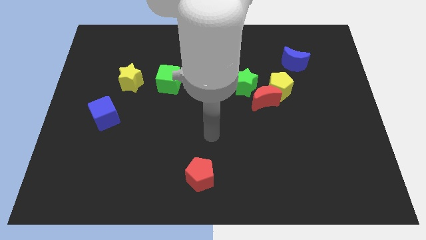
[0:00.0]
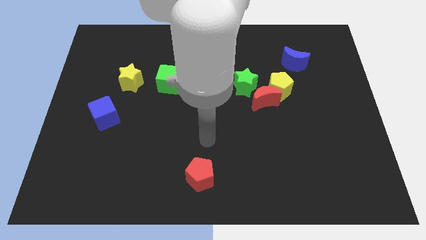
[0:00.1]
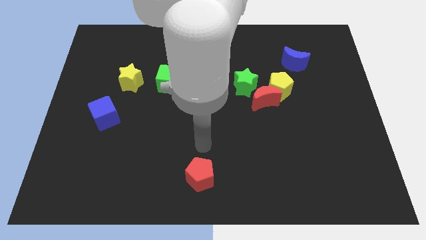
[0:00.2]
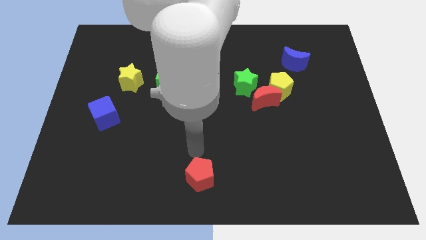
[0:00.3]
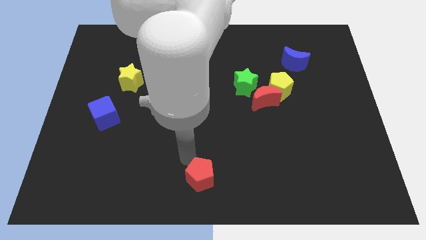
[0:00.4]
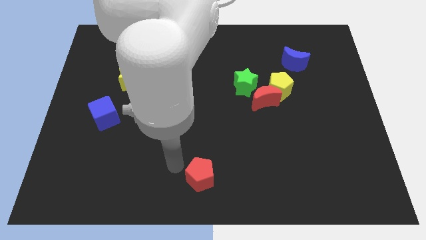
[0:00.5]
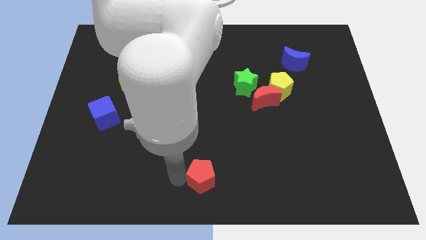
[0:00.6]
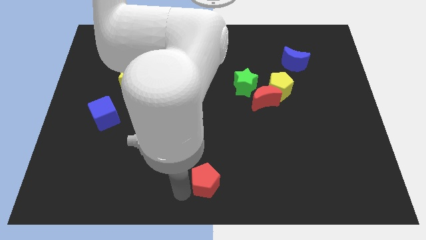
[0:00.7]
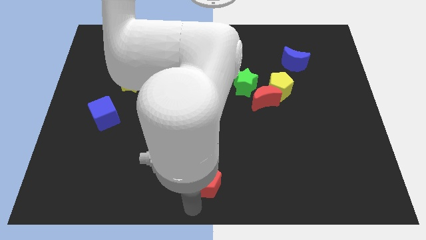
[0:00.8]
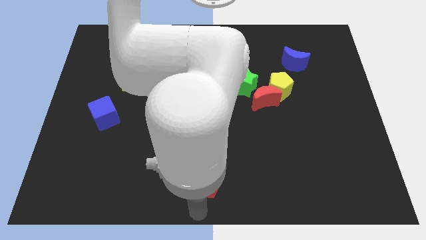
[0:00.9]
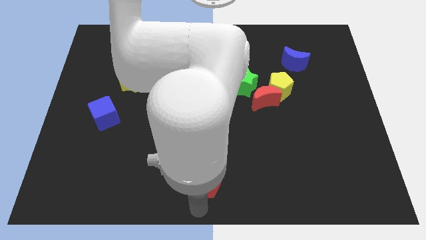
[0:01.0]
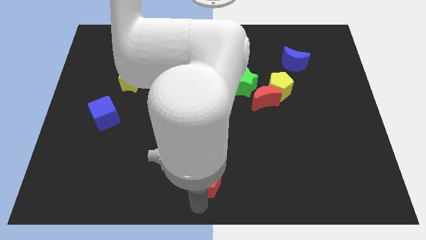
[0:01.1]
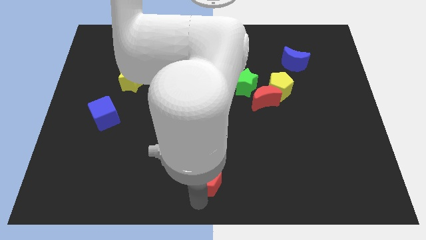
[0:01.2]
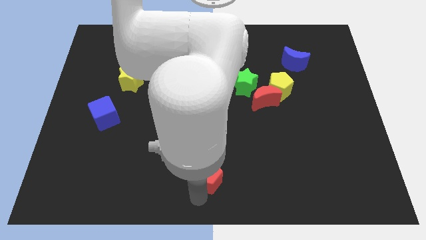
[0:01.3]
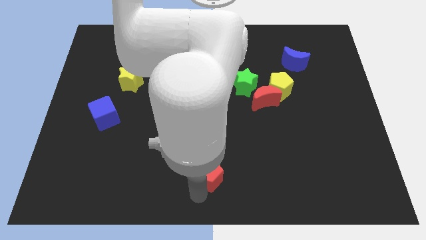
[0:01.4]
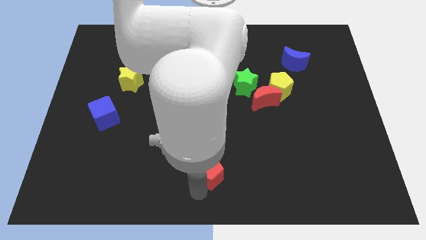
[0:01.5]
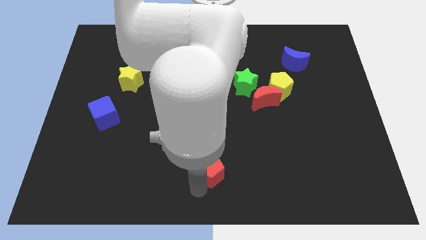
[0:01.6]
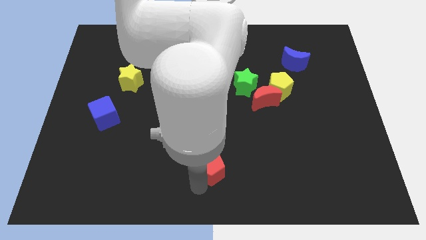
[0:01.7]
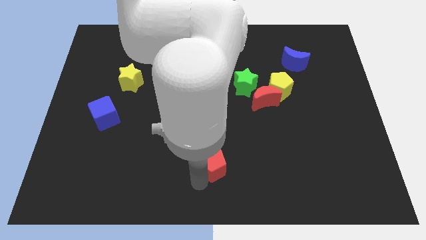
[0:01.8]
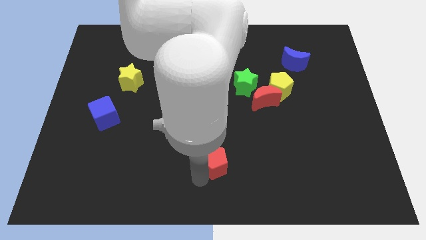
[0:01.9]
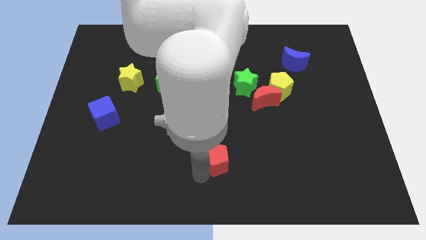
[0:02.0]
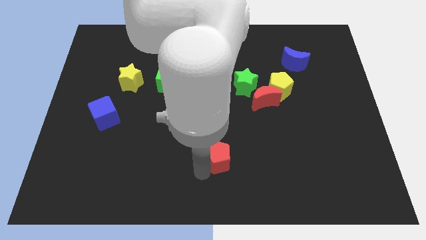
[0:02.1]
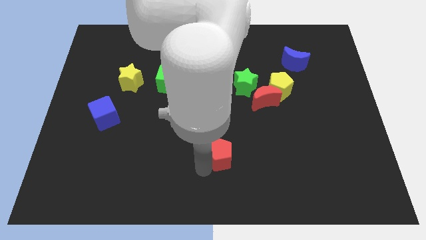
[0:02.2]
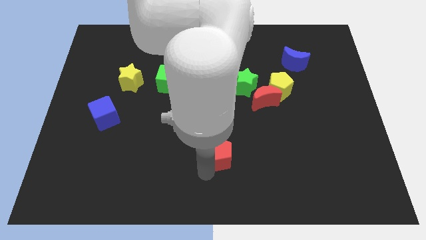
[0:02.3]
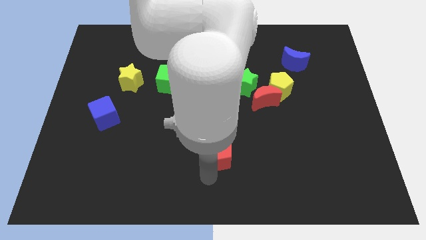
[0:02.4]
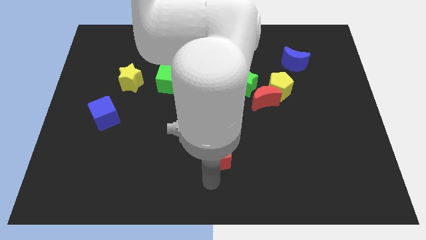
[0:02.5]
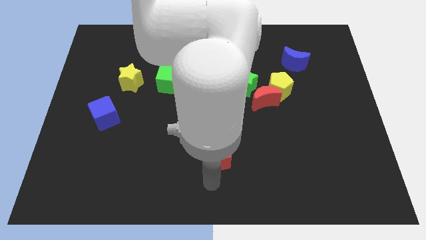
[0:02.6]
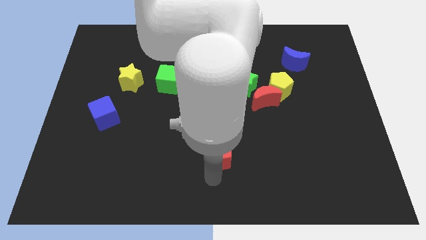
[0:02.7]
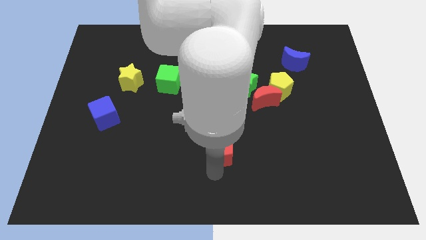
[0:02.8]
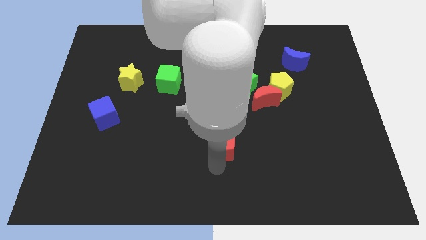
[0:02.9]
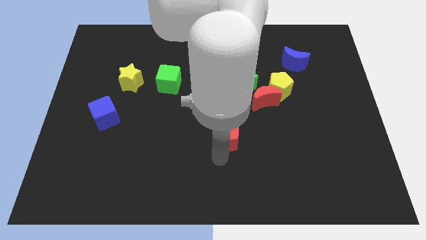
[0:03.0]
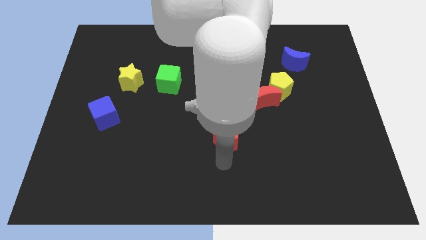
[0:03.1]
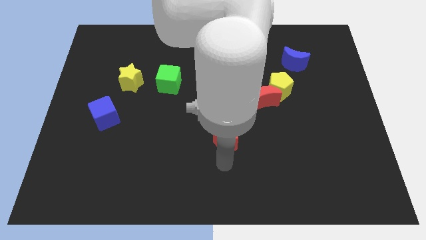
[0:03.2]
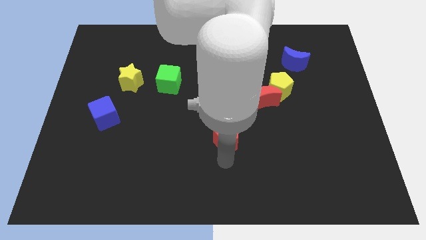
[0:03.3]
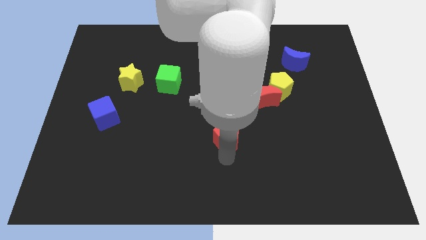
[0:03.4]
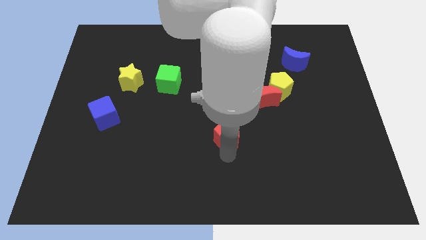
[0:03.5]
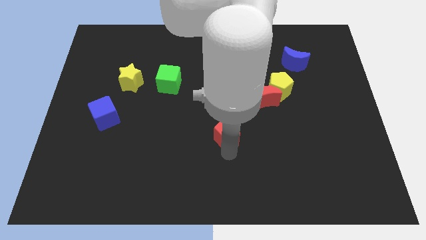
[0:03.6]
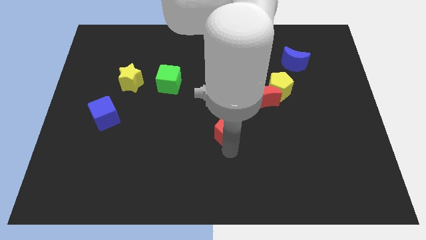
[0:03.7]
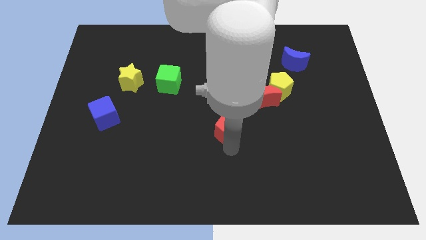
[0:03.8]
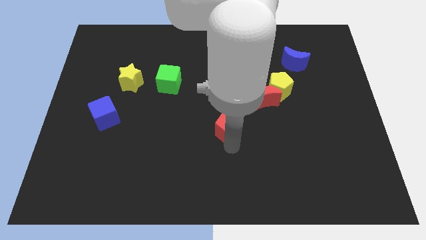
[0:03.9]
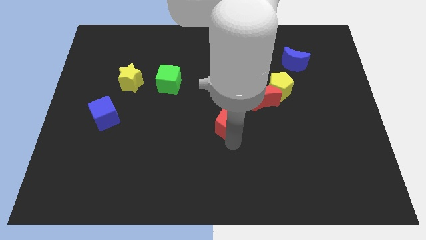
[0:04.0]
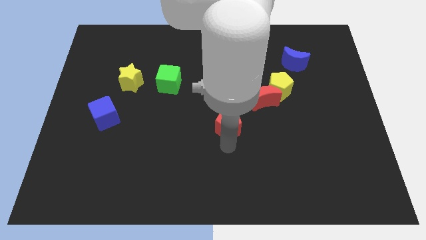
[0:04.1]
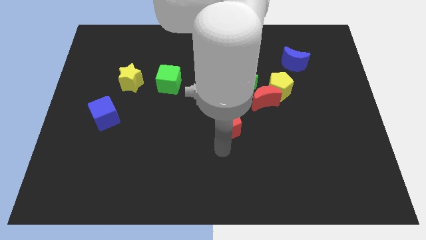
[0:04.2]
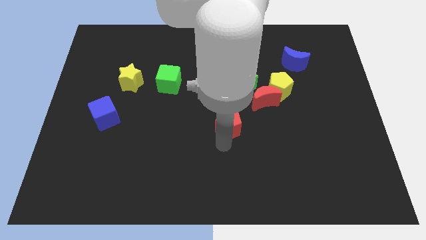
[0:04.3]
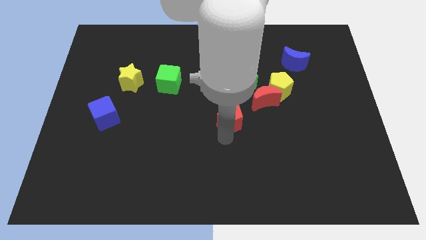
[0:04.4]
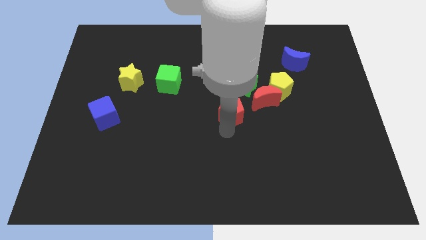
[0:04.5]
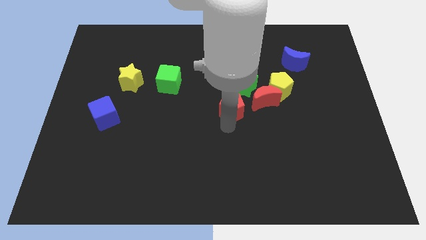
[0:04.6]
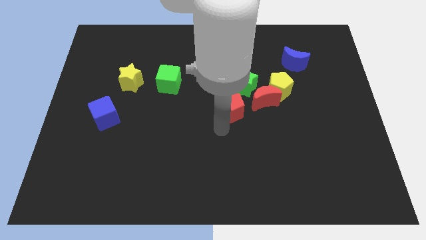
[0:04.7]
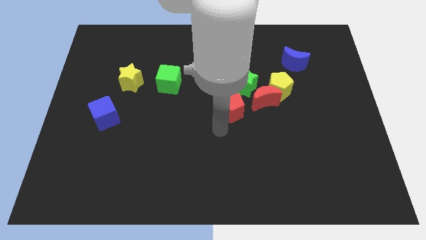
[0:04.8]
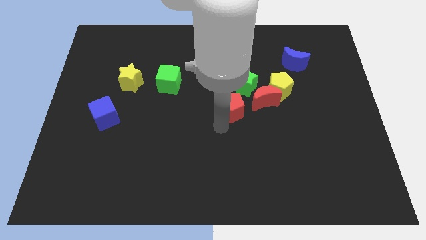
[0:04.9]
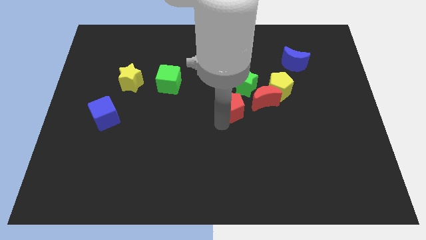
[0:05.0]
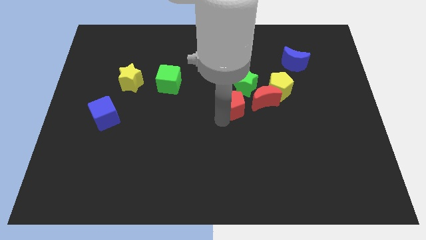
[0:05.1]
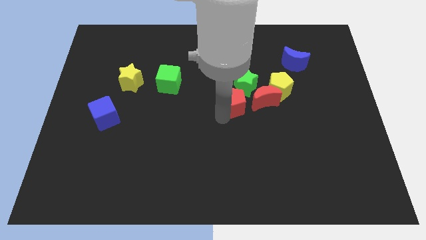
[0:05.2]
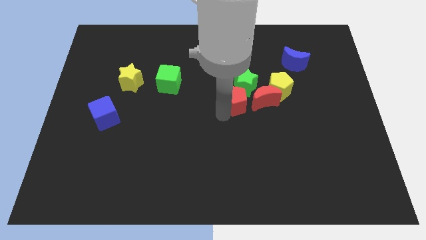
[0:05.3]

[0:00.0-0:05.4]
slide the red pentagon close to the green star

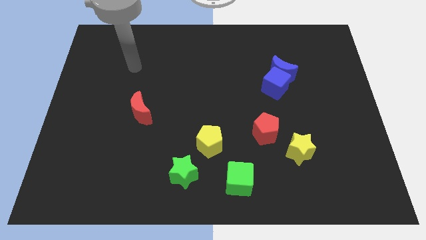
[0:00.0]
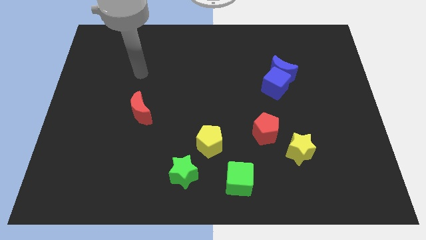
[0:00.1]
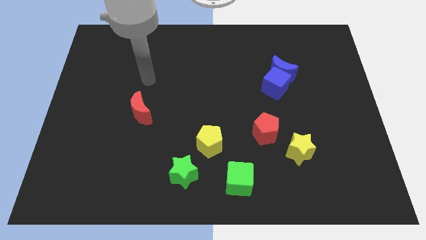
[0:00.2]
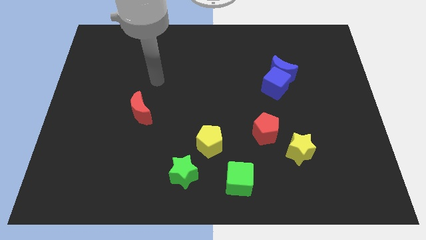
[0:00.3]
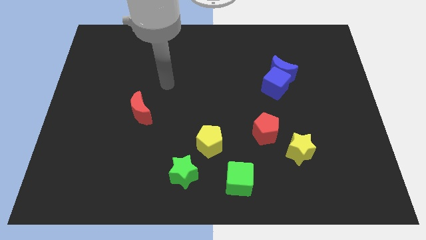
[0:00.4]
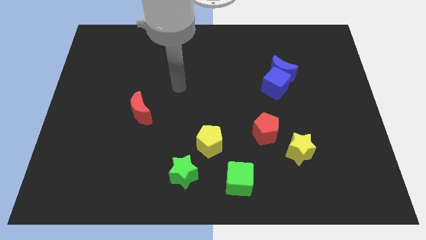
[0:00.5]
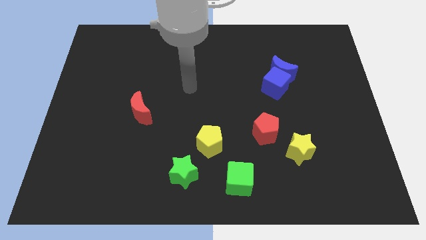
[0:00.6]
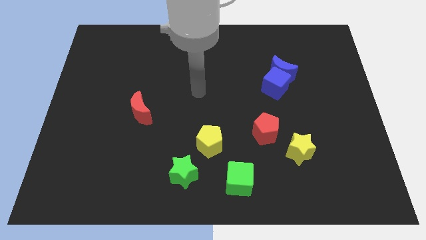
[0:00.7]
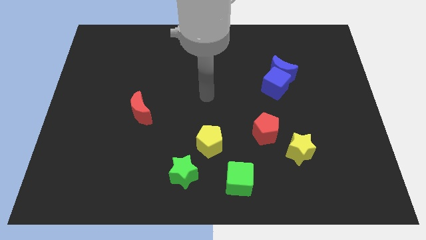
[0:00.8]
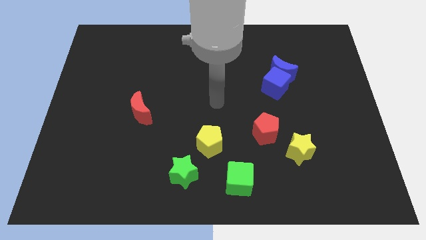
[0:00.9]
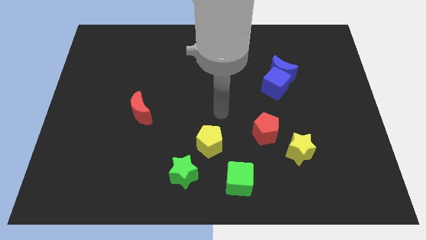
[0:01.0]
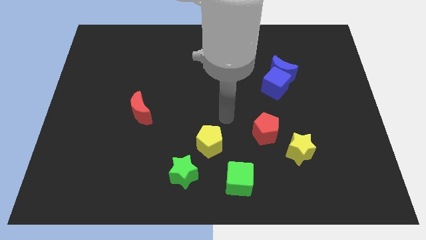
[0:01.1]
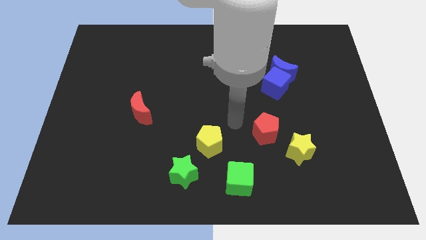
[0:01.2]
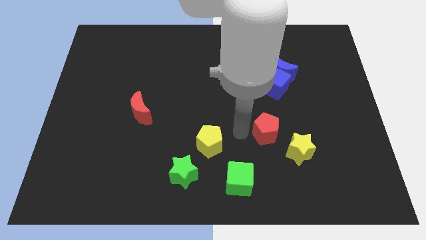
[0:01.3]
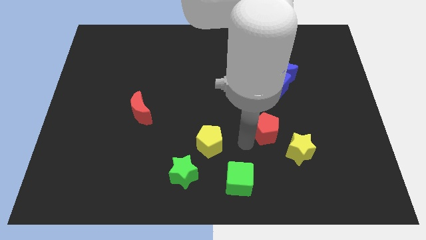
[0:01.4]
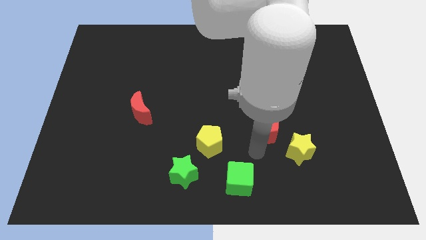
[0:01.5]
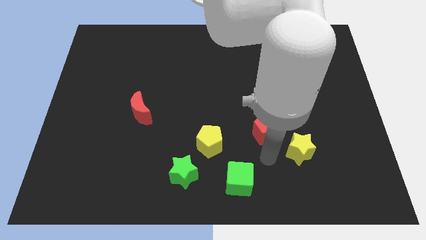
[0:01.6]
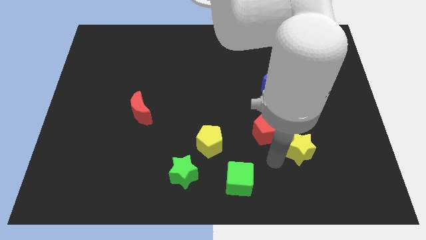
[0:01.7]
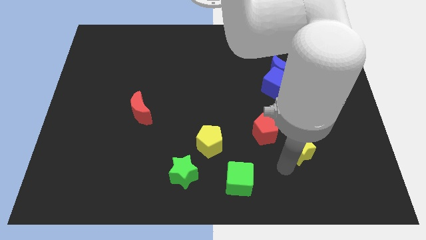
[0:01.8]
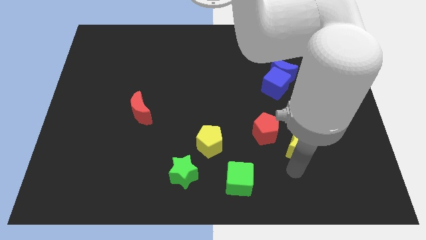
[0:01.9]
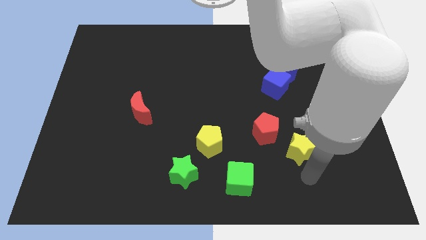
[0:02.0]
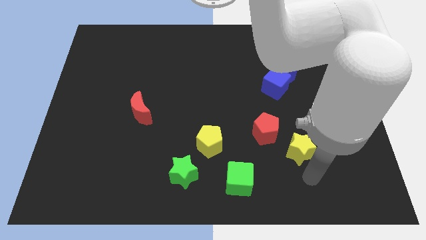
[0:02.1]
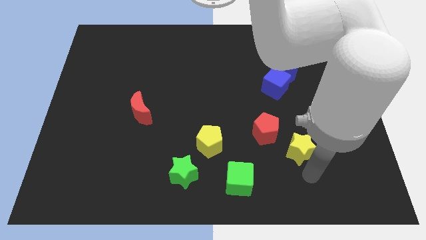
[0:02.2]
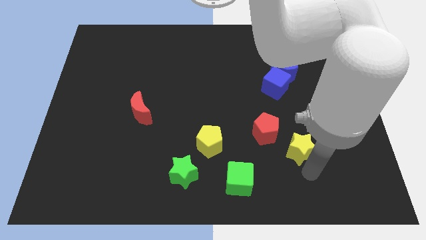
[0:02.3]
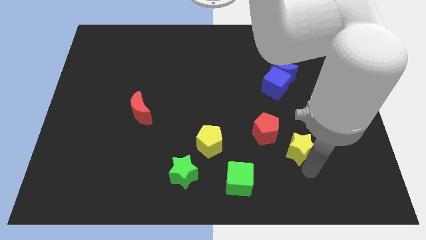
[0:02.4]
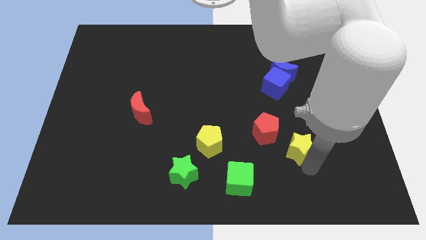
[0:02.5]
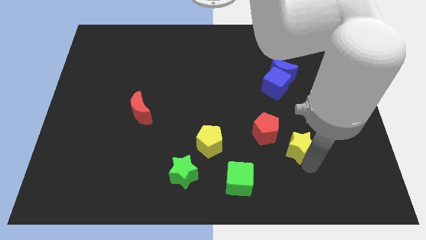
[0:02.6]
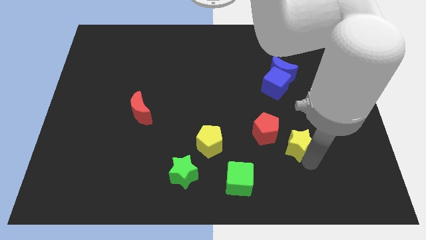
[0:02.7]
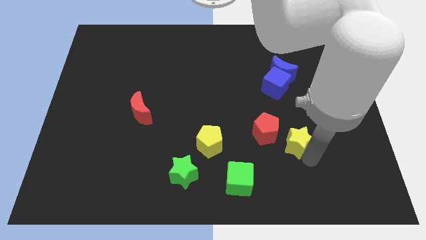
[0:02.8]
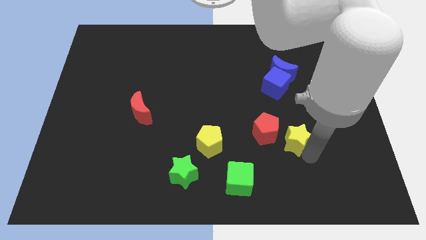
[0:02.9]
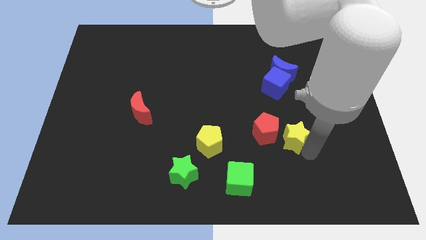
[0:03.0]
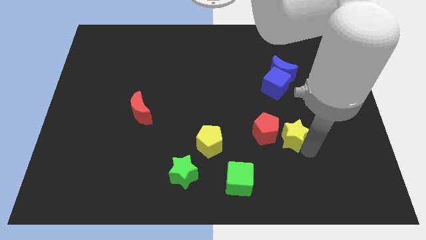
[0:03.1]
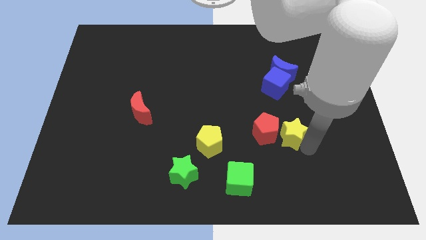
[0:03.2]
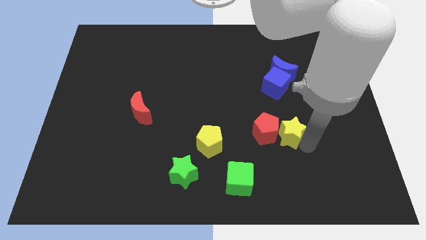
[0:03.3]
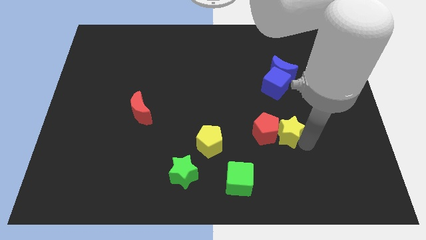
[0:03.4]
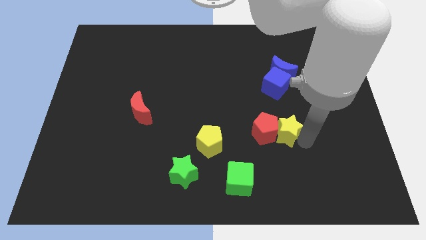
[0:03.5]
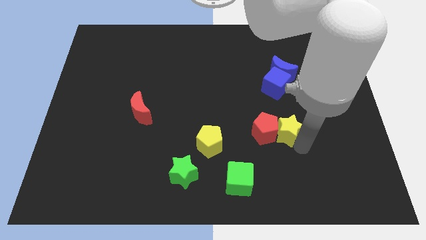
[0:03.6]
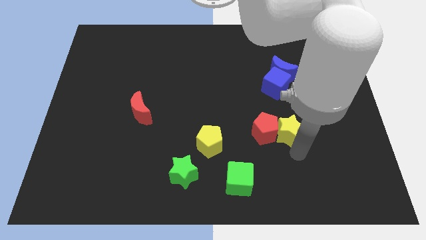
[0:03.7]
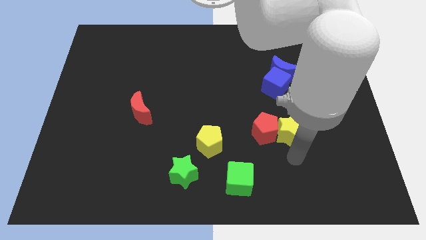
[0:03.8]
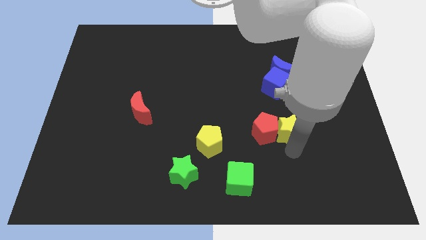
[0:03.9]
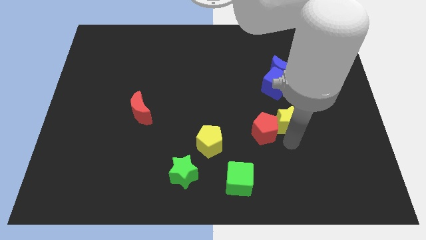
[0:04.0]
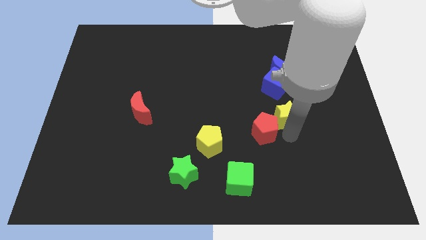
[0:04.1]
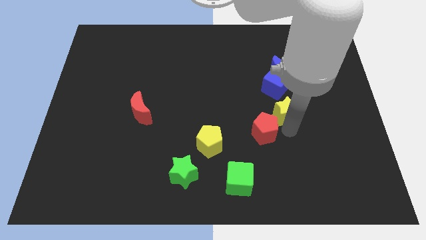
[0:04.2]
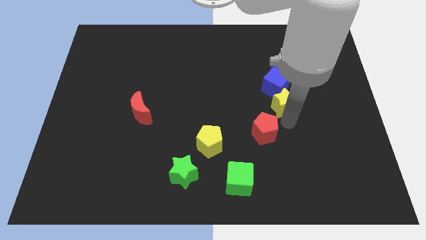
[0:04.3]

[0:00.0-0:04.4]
slide the yellow star to the blue cube
